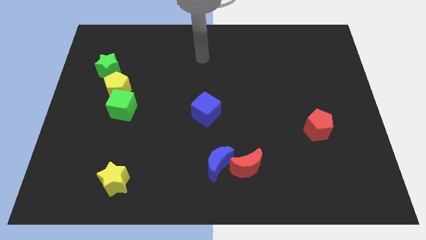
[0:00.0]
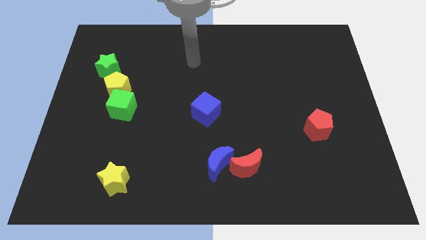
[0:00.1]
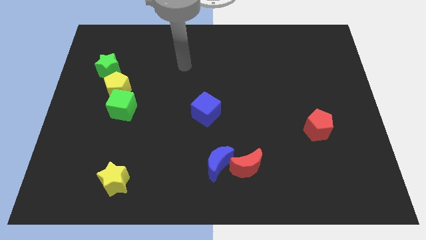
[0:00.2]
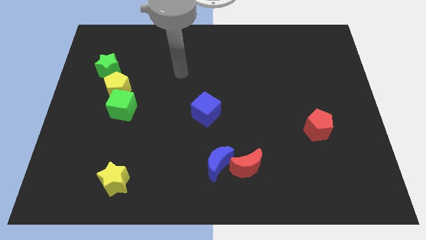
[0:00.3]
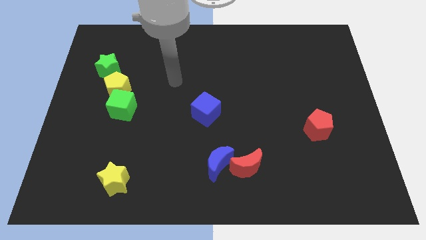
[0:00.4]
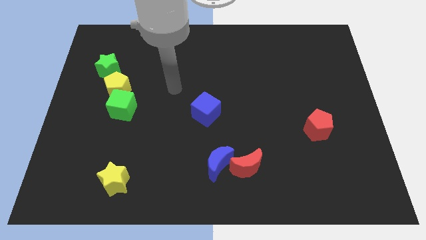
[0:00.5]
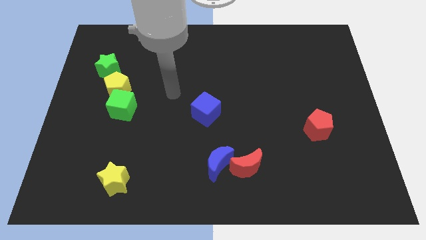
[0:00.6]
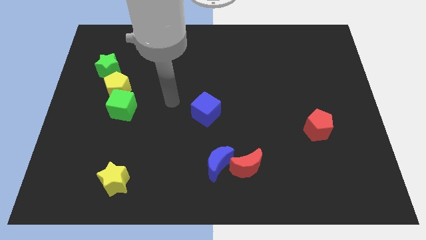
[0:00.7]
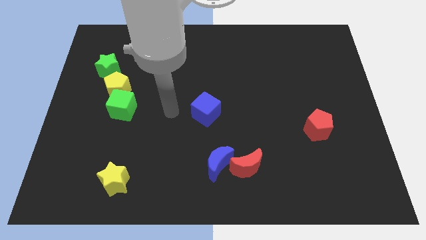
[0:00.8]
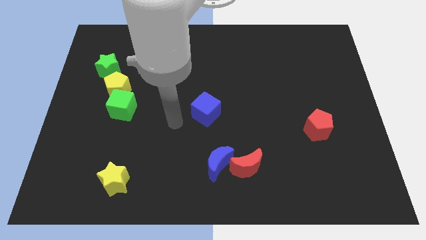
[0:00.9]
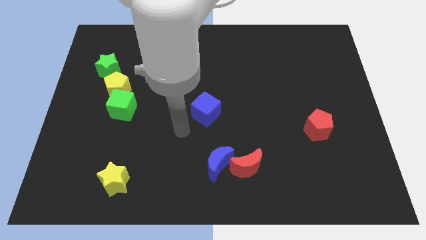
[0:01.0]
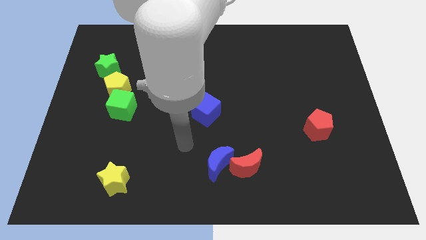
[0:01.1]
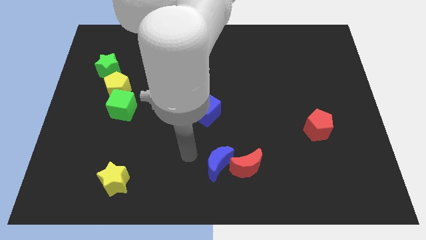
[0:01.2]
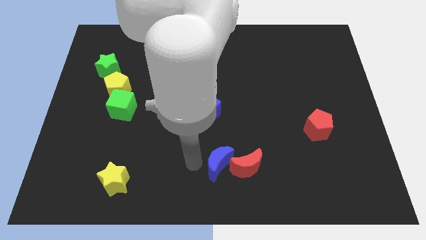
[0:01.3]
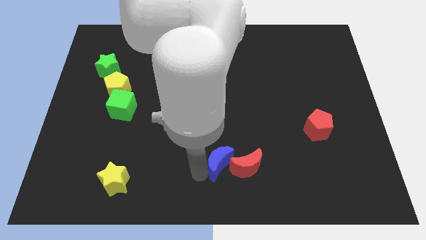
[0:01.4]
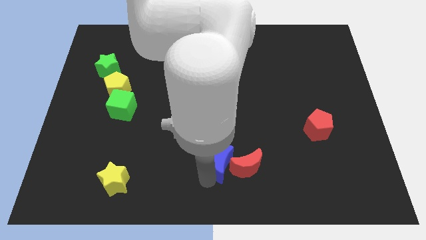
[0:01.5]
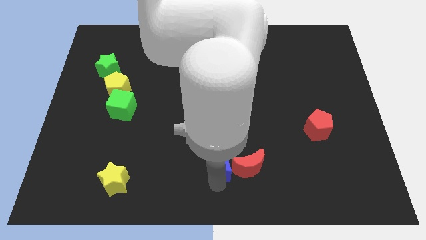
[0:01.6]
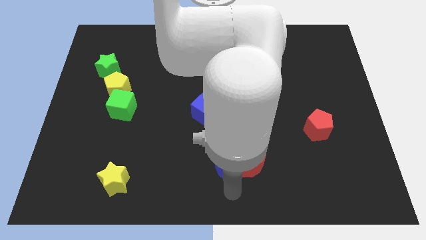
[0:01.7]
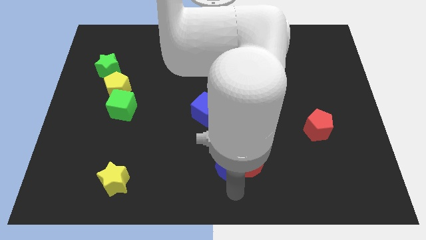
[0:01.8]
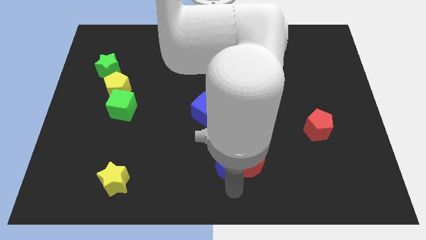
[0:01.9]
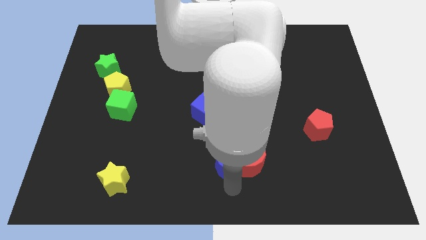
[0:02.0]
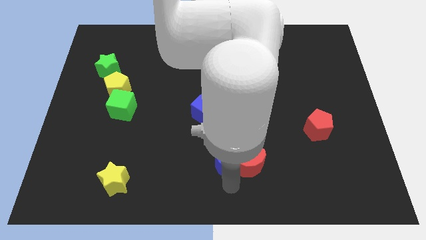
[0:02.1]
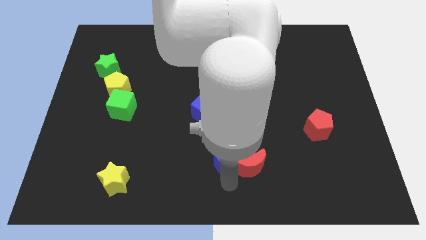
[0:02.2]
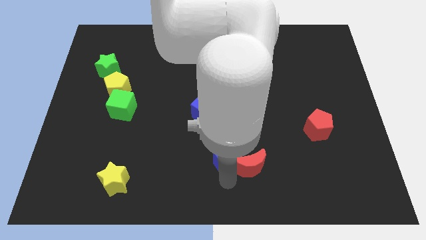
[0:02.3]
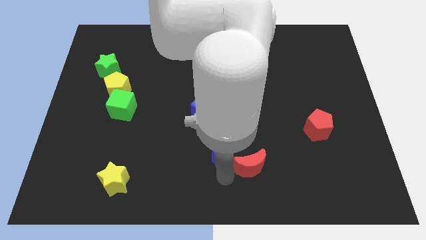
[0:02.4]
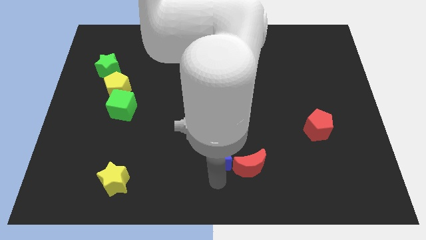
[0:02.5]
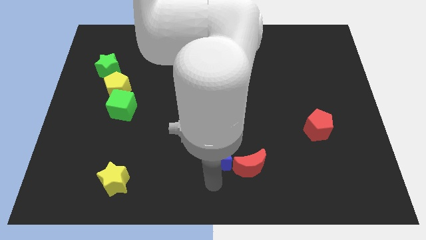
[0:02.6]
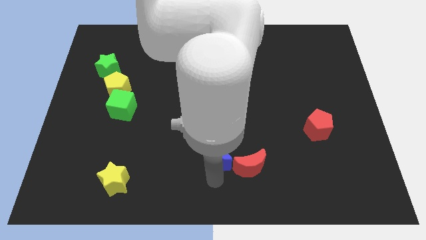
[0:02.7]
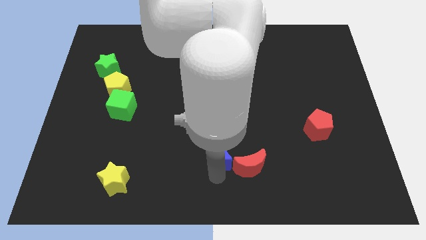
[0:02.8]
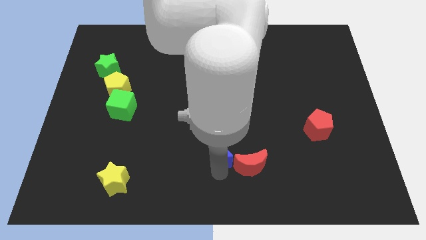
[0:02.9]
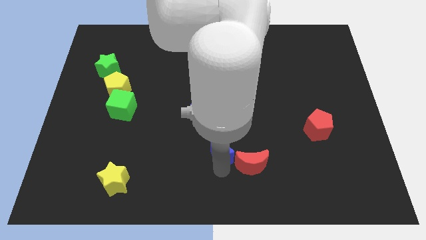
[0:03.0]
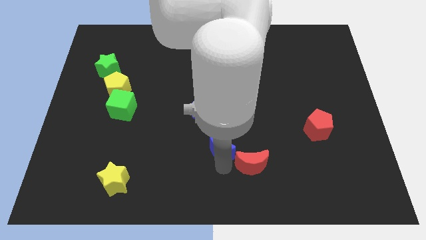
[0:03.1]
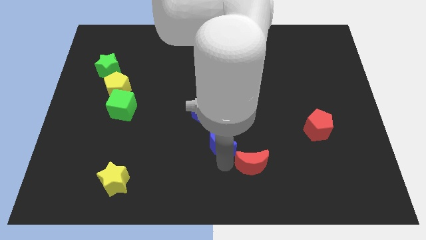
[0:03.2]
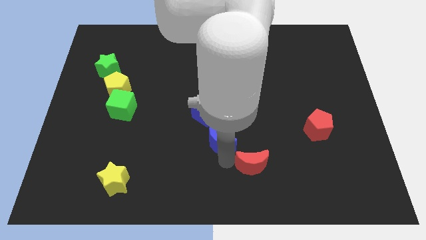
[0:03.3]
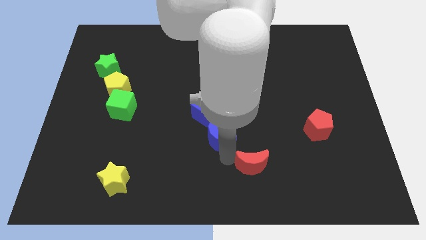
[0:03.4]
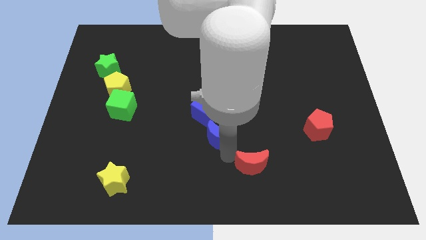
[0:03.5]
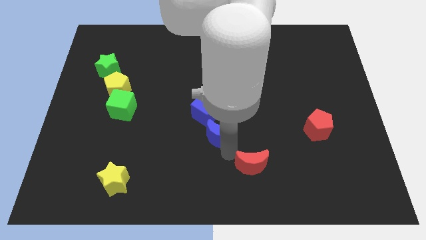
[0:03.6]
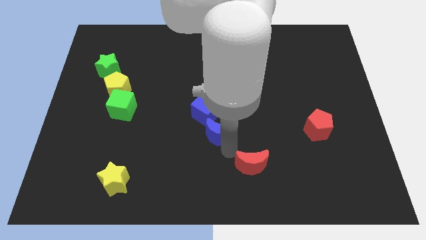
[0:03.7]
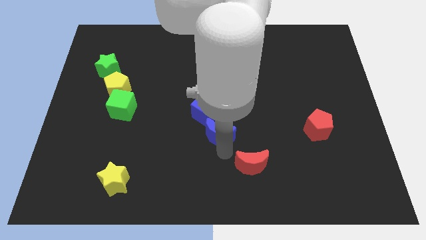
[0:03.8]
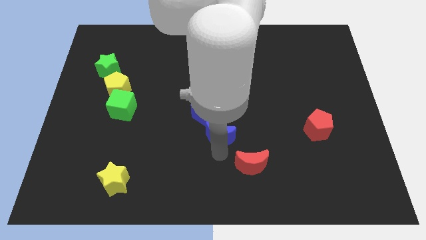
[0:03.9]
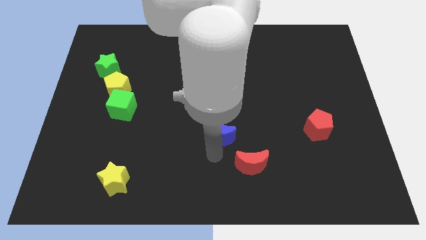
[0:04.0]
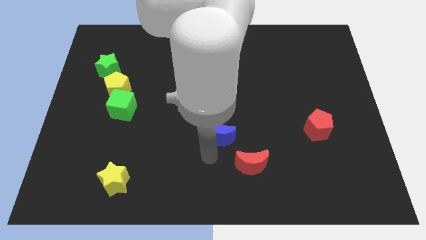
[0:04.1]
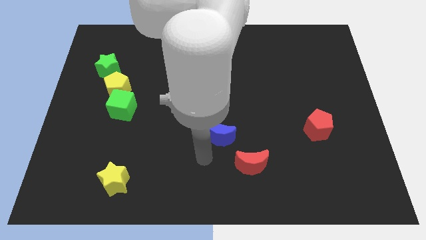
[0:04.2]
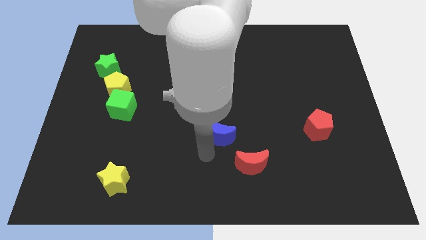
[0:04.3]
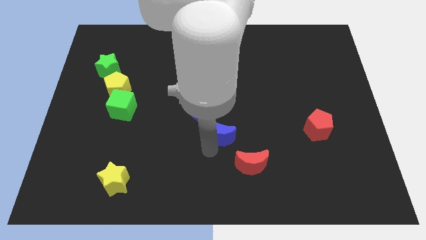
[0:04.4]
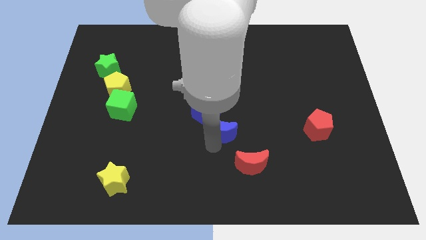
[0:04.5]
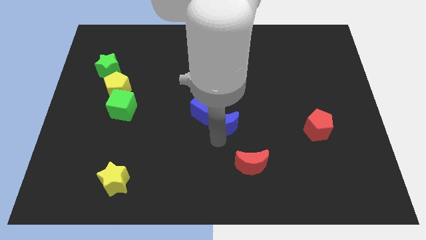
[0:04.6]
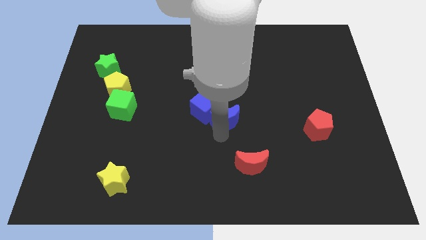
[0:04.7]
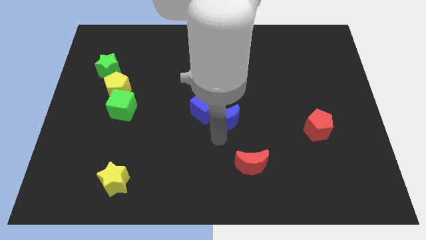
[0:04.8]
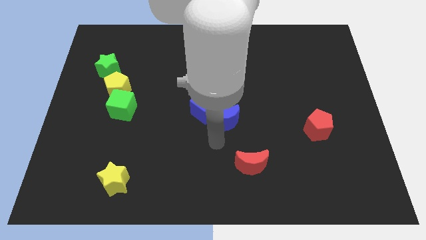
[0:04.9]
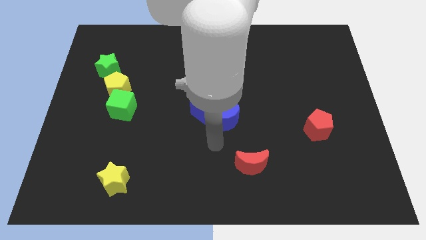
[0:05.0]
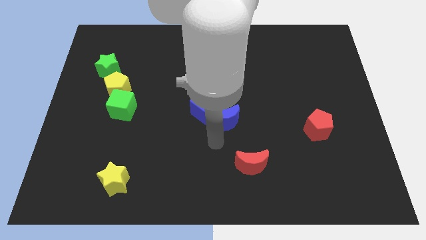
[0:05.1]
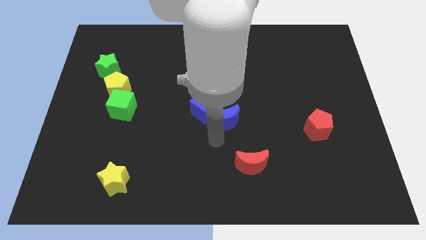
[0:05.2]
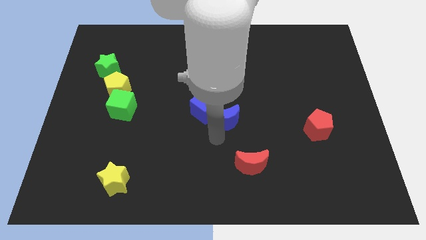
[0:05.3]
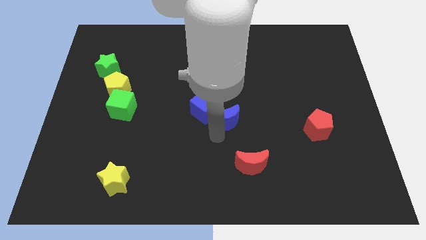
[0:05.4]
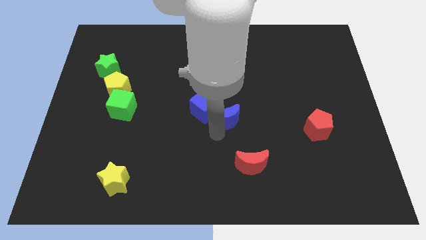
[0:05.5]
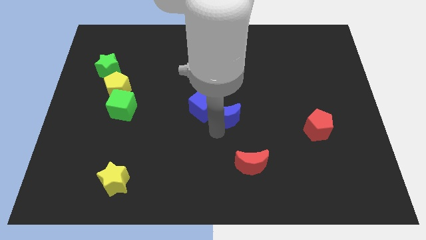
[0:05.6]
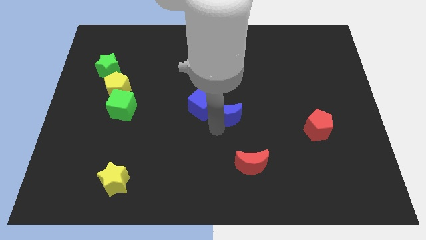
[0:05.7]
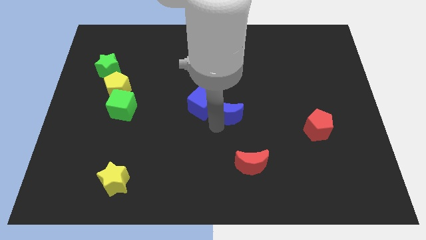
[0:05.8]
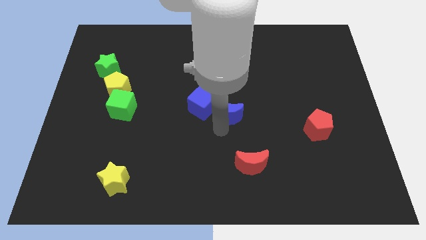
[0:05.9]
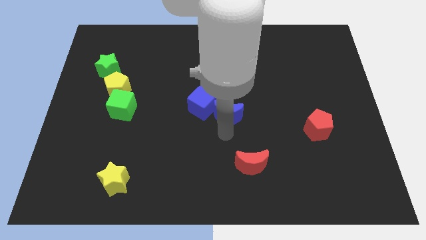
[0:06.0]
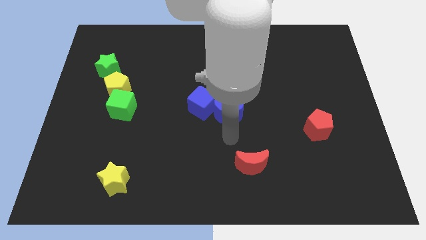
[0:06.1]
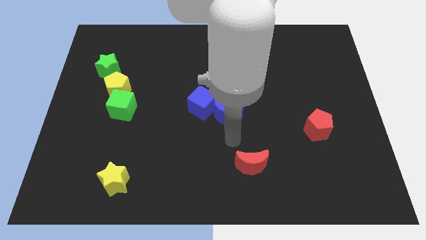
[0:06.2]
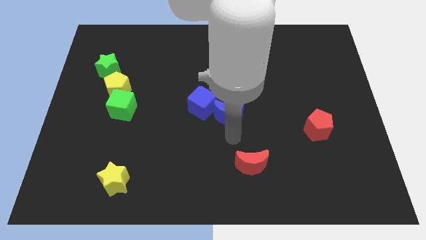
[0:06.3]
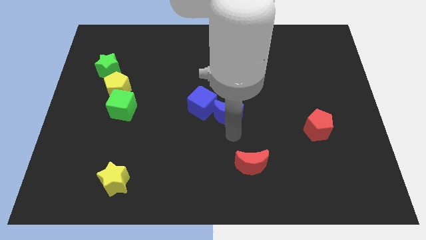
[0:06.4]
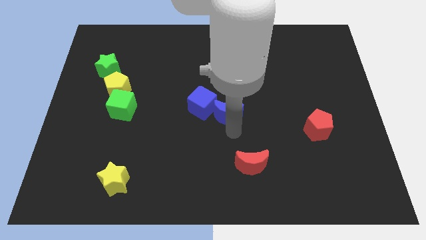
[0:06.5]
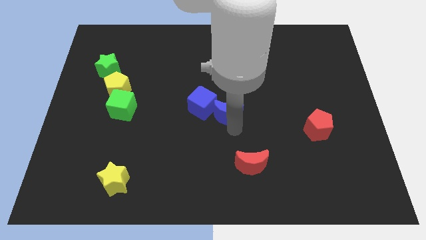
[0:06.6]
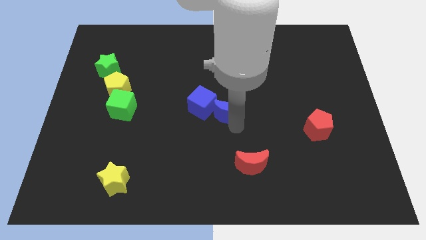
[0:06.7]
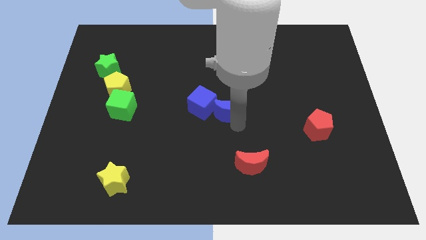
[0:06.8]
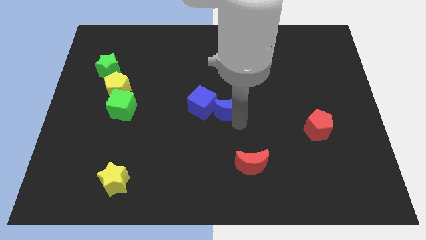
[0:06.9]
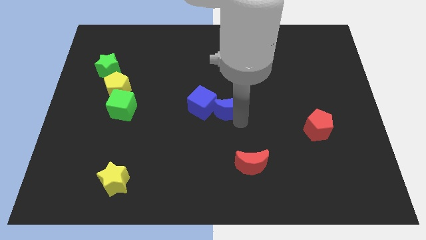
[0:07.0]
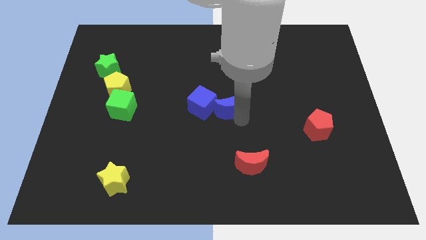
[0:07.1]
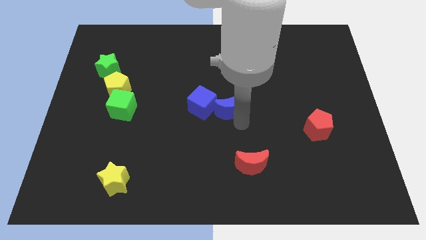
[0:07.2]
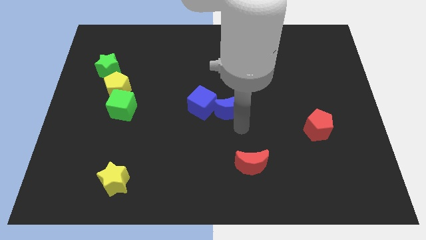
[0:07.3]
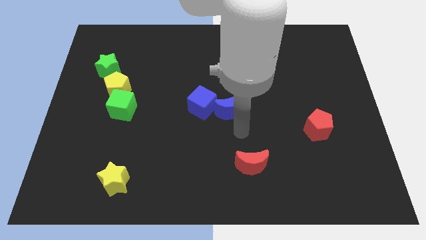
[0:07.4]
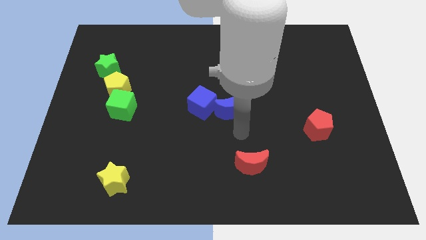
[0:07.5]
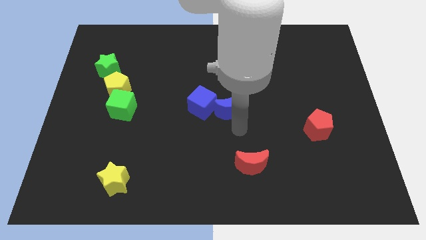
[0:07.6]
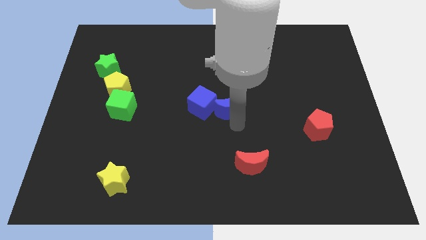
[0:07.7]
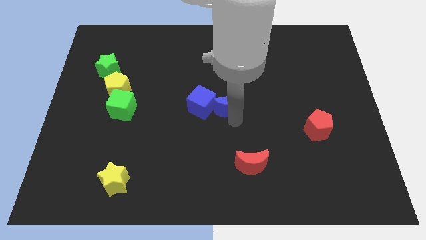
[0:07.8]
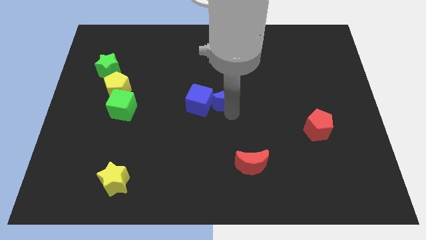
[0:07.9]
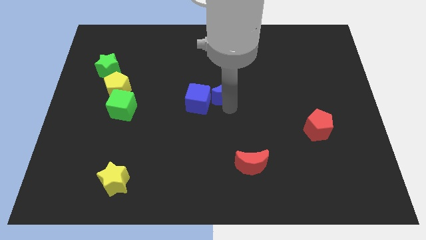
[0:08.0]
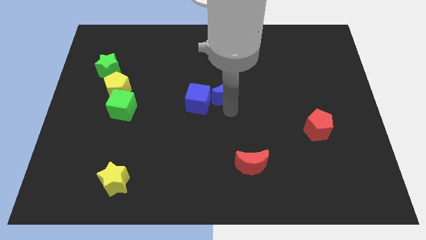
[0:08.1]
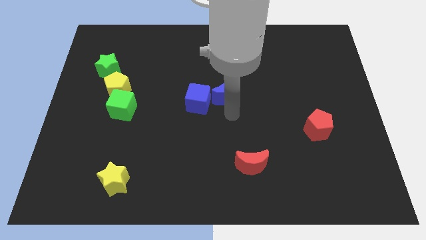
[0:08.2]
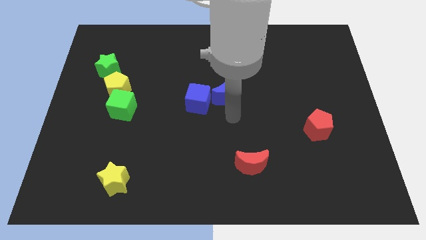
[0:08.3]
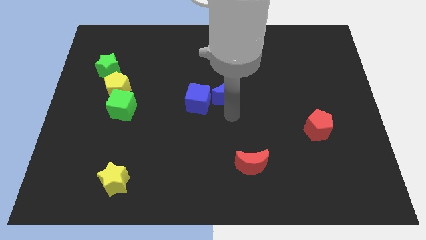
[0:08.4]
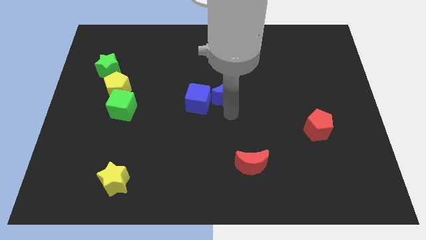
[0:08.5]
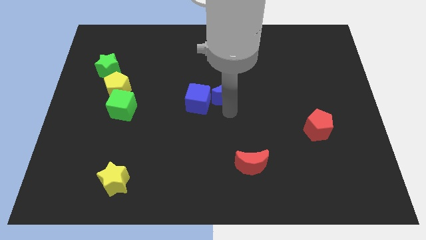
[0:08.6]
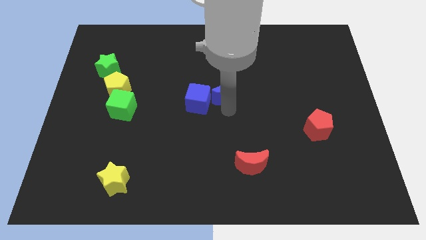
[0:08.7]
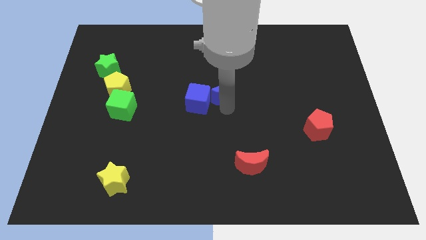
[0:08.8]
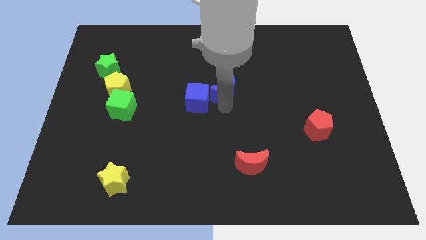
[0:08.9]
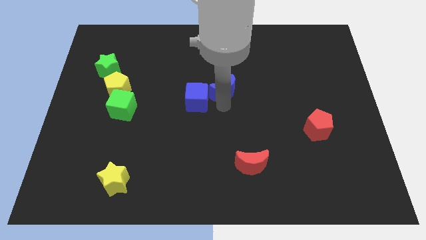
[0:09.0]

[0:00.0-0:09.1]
slide the blue moon upwards
